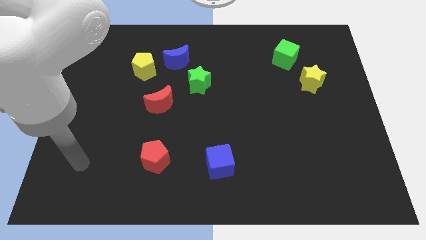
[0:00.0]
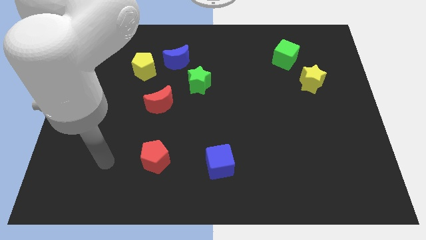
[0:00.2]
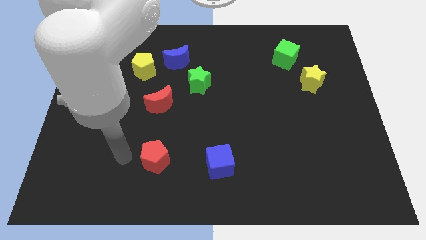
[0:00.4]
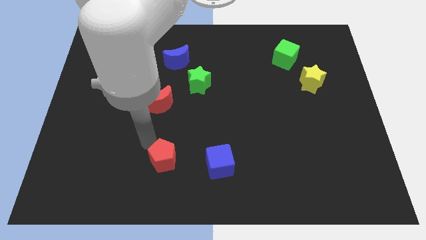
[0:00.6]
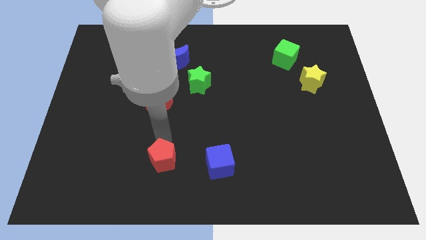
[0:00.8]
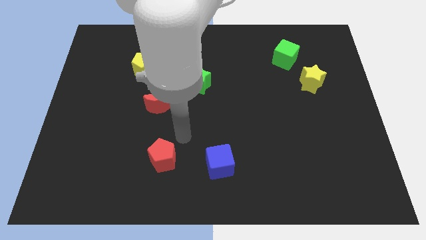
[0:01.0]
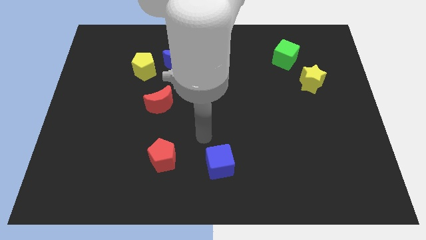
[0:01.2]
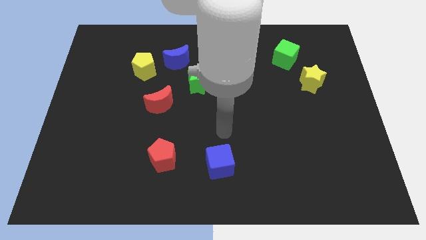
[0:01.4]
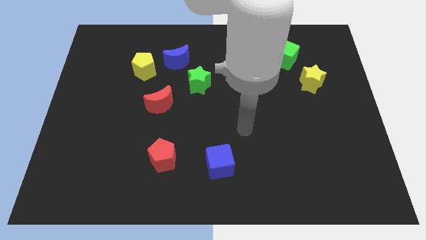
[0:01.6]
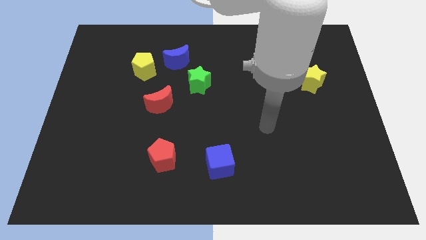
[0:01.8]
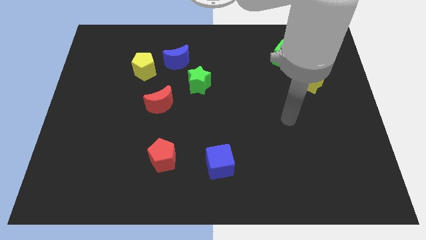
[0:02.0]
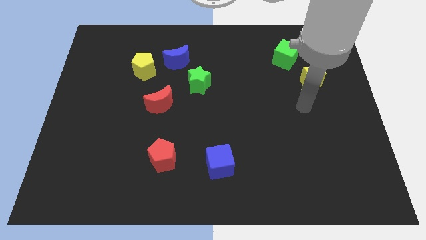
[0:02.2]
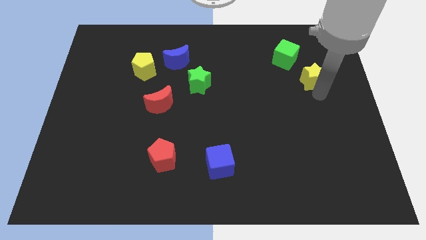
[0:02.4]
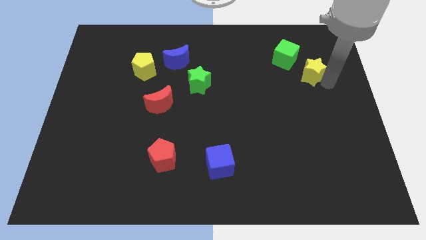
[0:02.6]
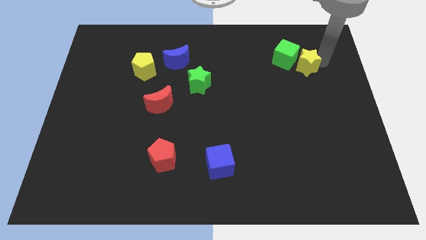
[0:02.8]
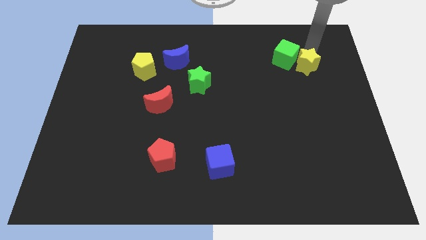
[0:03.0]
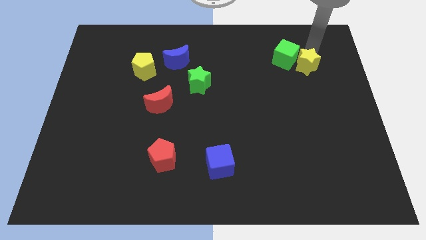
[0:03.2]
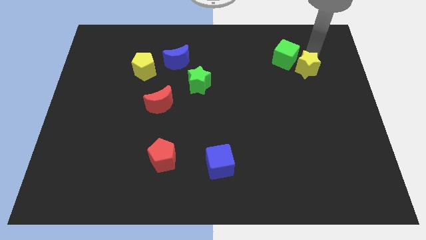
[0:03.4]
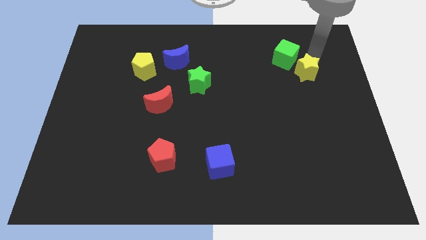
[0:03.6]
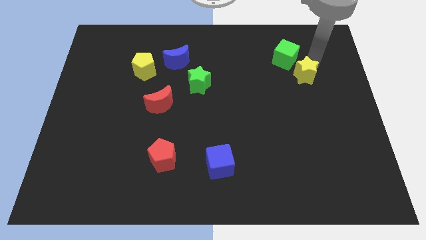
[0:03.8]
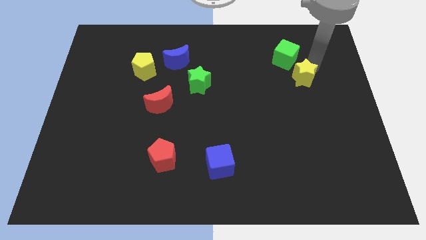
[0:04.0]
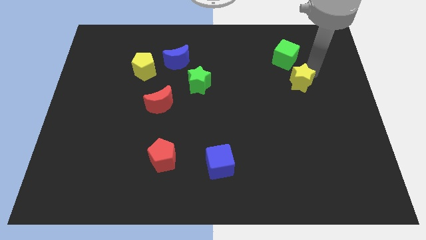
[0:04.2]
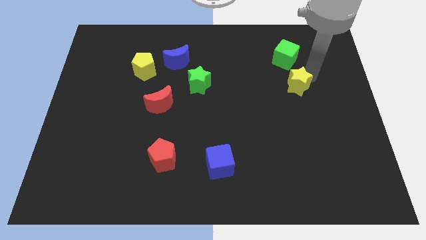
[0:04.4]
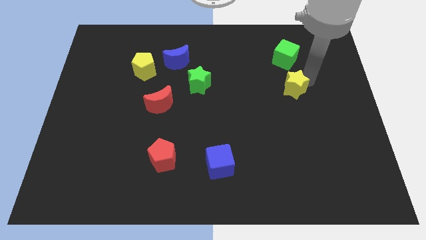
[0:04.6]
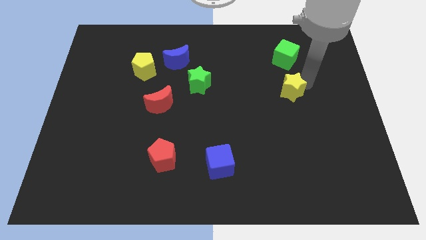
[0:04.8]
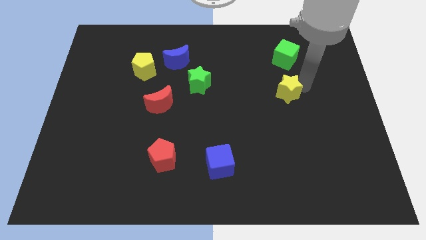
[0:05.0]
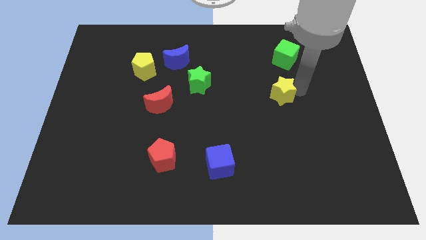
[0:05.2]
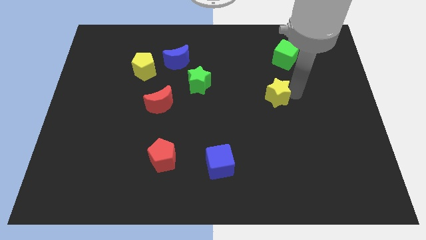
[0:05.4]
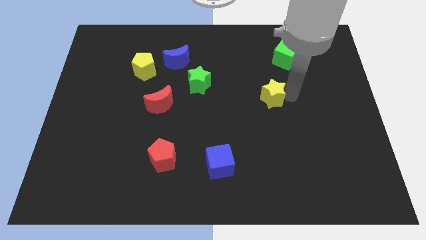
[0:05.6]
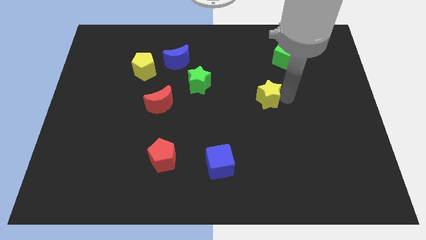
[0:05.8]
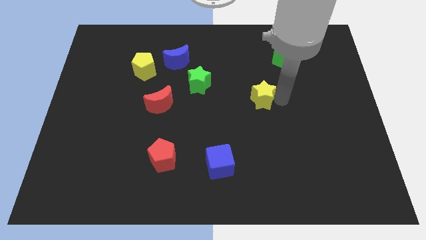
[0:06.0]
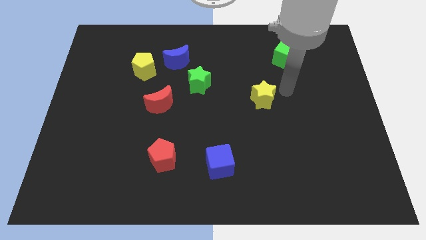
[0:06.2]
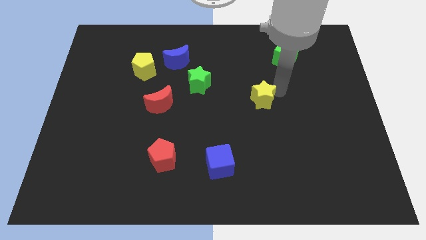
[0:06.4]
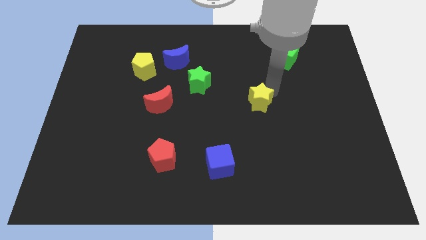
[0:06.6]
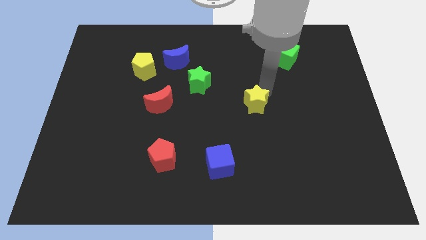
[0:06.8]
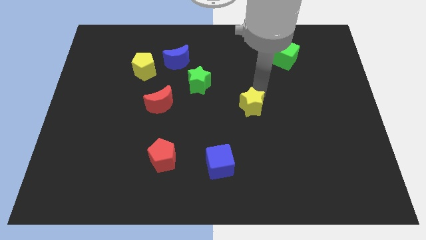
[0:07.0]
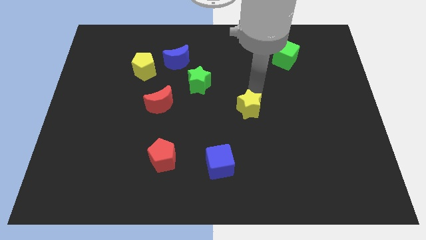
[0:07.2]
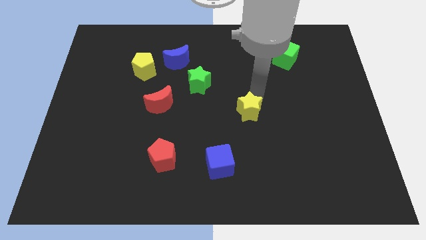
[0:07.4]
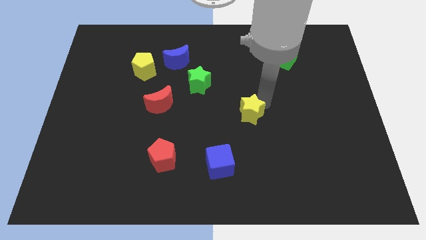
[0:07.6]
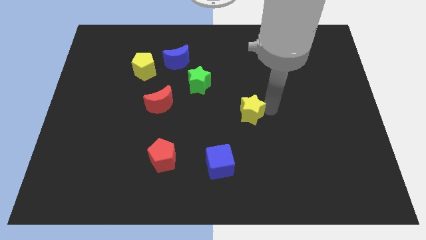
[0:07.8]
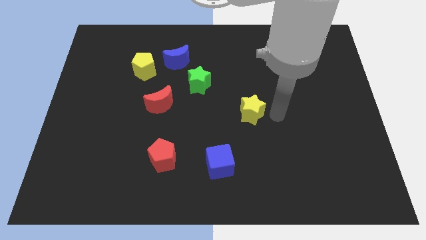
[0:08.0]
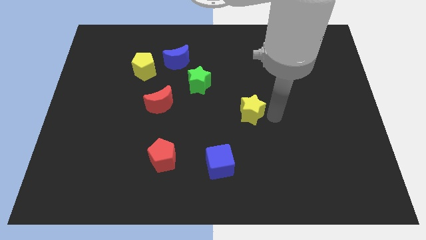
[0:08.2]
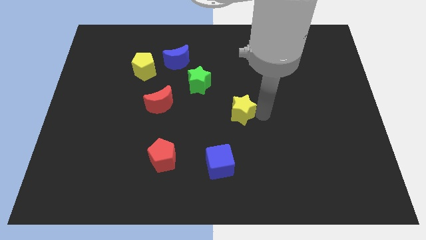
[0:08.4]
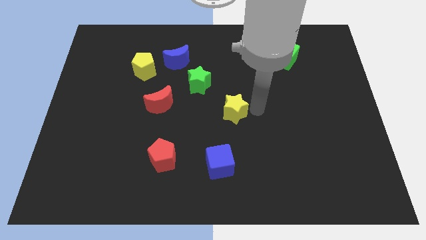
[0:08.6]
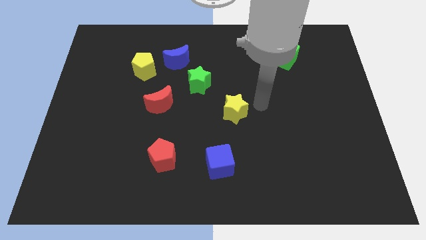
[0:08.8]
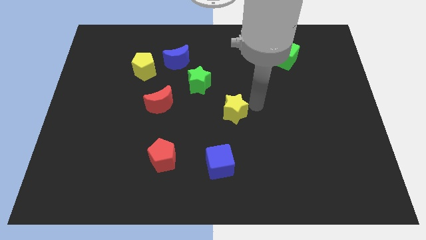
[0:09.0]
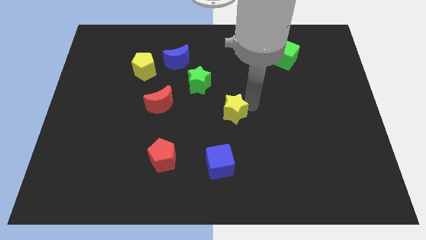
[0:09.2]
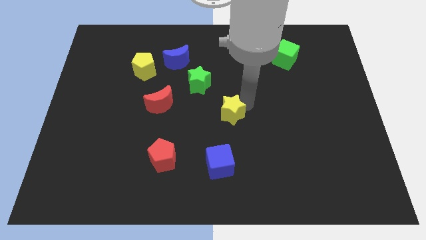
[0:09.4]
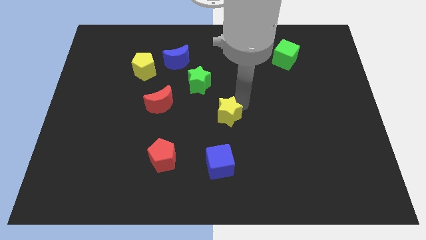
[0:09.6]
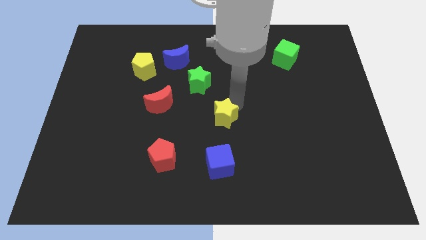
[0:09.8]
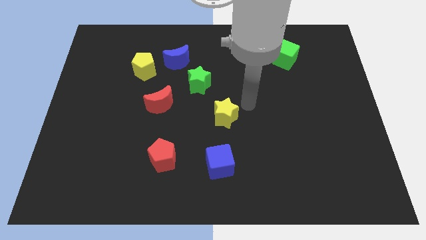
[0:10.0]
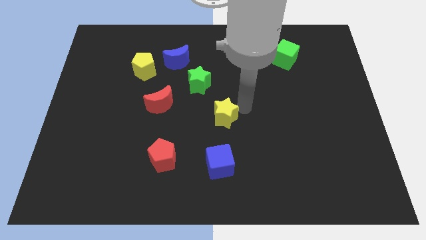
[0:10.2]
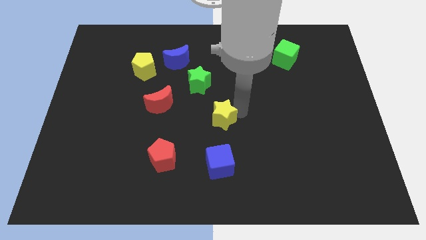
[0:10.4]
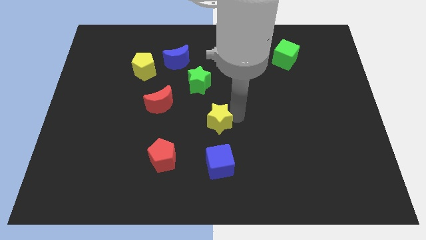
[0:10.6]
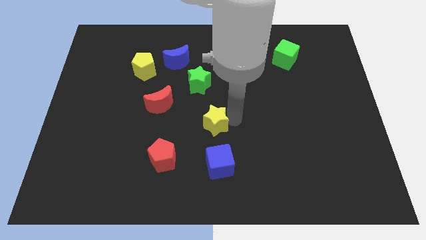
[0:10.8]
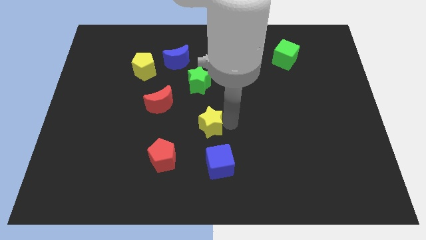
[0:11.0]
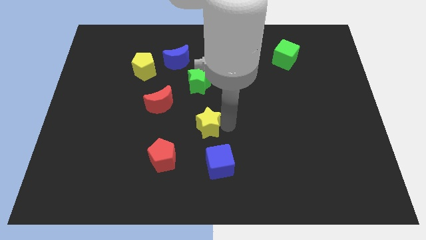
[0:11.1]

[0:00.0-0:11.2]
put the yellow star diagonally up and to the right of the red pentagon
